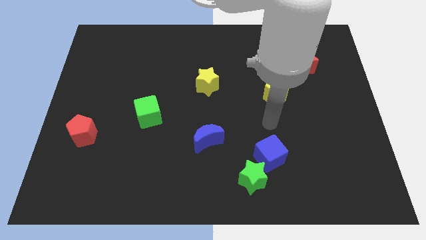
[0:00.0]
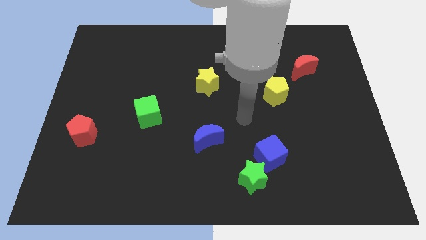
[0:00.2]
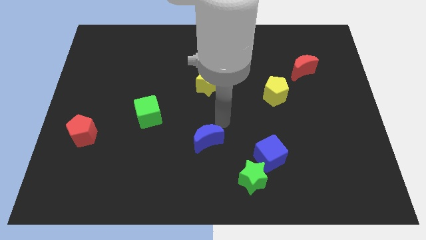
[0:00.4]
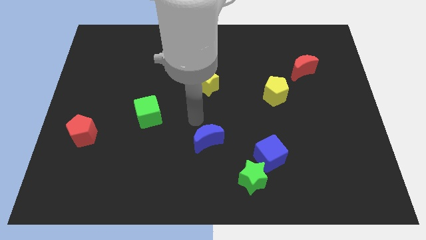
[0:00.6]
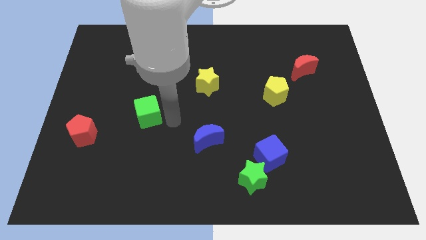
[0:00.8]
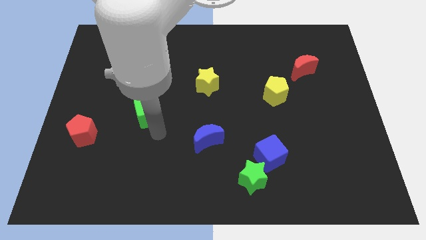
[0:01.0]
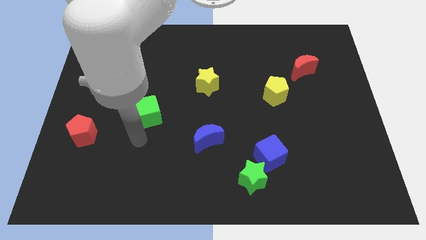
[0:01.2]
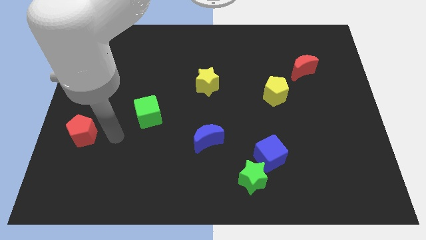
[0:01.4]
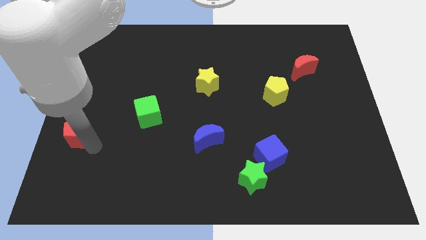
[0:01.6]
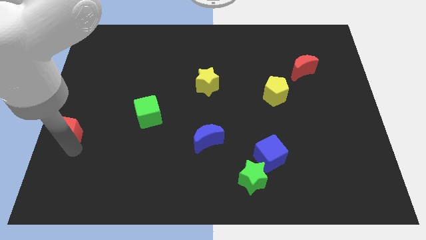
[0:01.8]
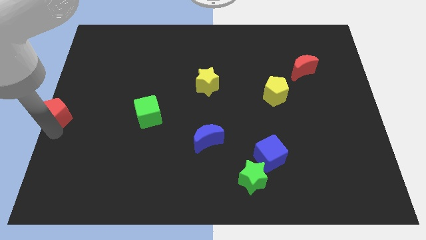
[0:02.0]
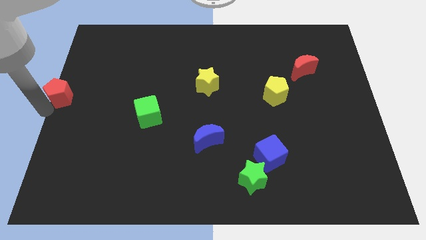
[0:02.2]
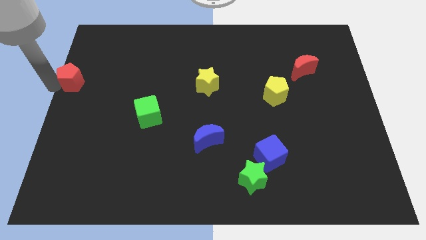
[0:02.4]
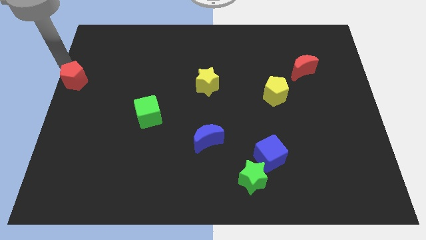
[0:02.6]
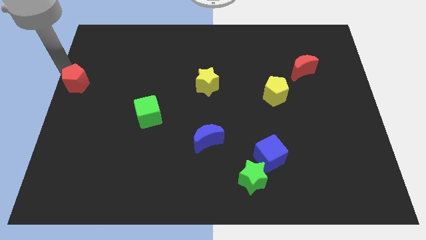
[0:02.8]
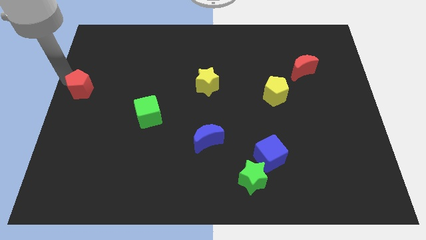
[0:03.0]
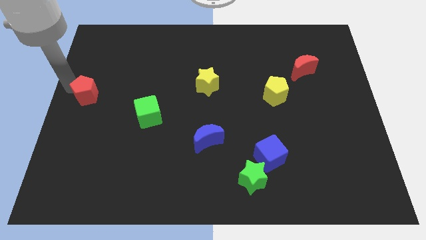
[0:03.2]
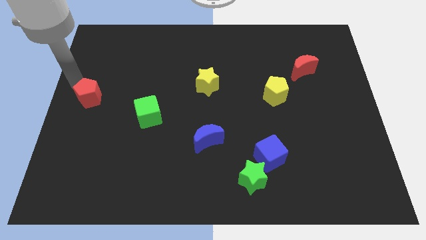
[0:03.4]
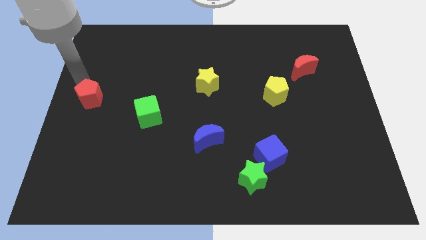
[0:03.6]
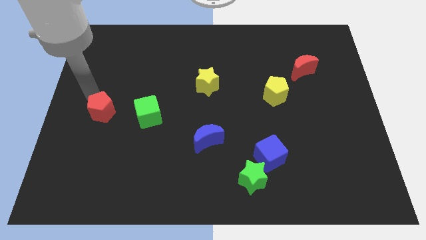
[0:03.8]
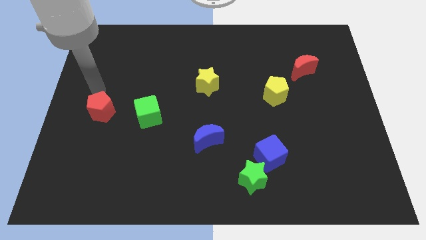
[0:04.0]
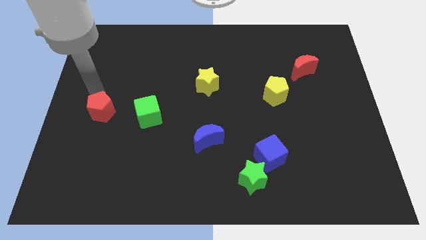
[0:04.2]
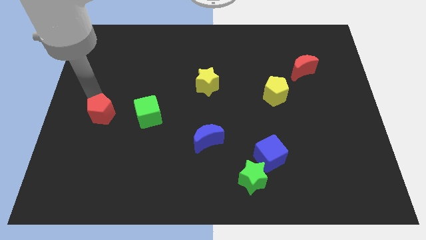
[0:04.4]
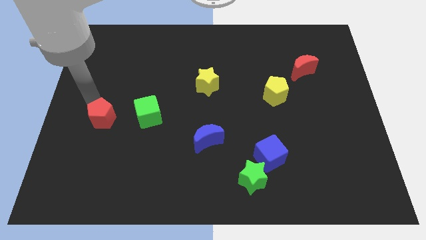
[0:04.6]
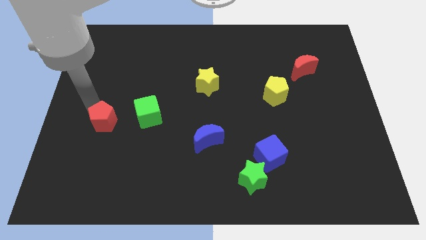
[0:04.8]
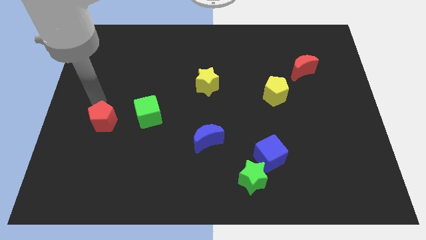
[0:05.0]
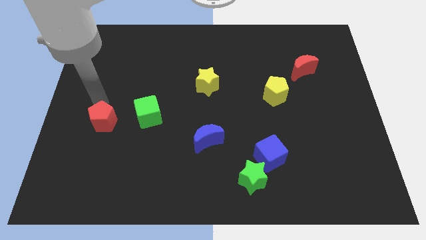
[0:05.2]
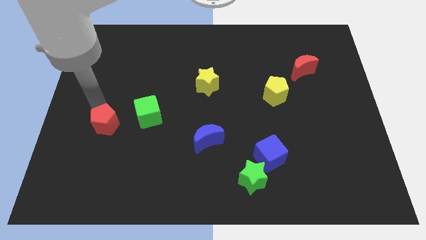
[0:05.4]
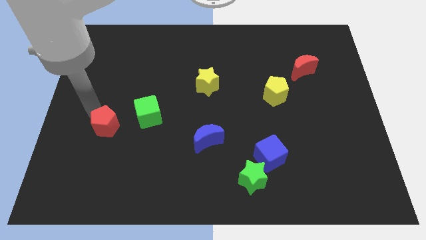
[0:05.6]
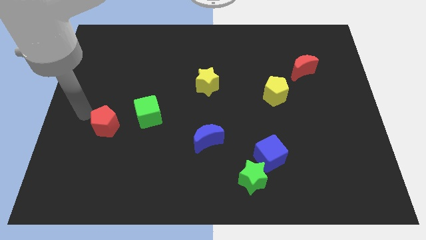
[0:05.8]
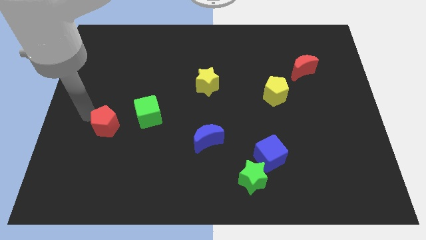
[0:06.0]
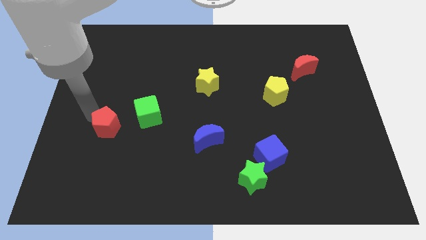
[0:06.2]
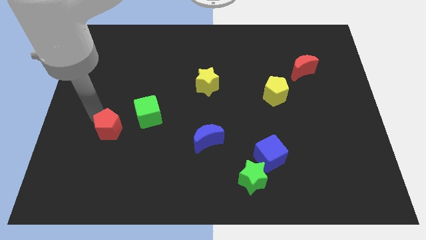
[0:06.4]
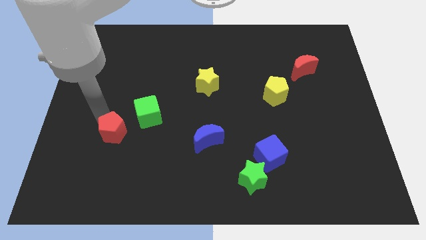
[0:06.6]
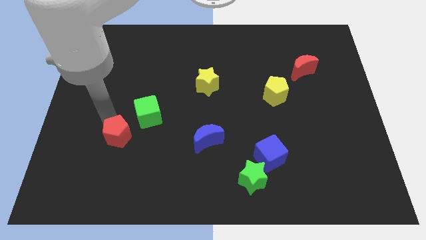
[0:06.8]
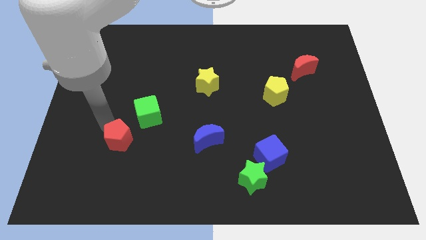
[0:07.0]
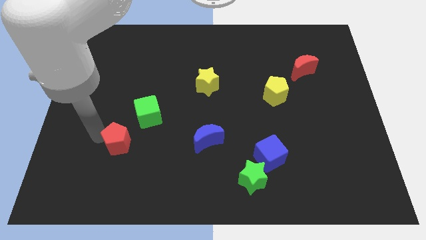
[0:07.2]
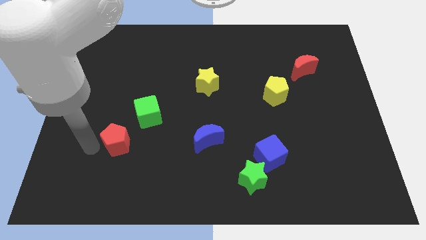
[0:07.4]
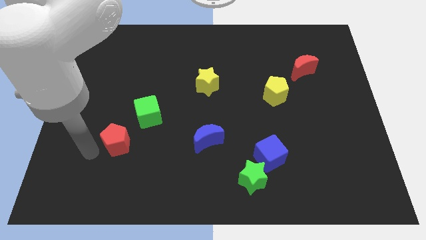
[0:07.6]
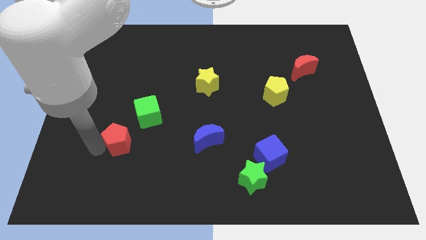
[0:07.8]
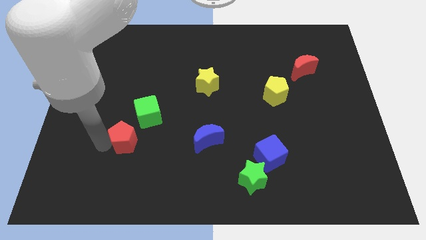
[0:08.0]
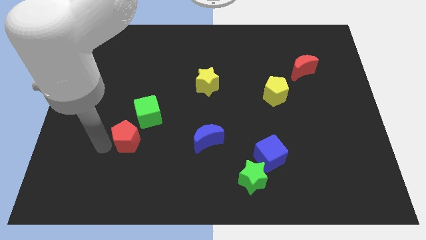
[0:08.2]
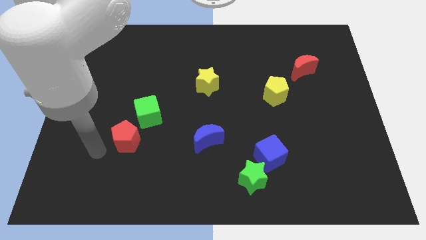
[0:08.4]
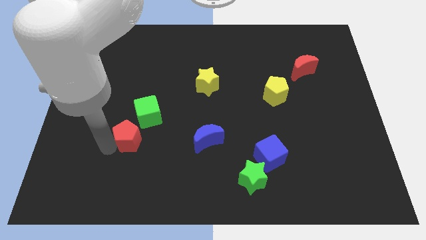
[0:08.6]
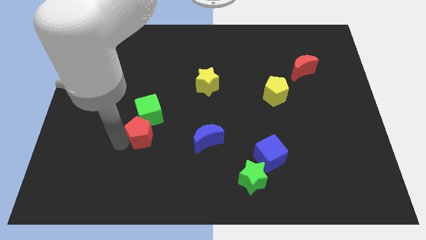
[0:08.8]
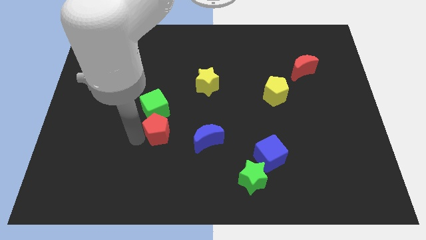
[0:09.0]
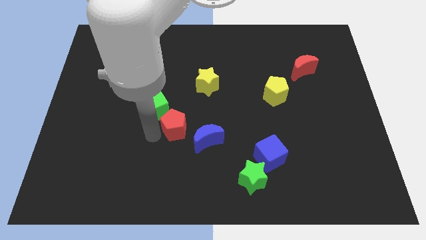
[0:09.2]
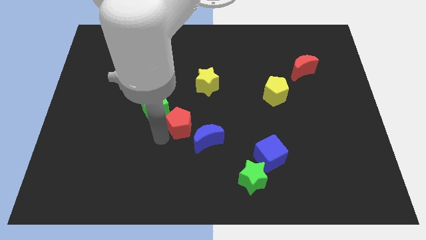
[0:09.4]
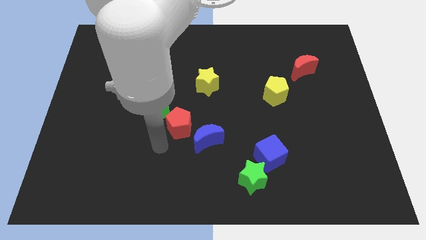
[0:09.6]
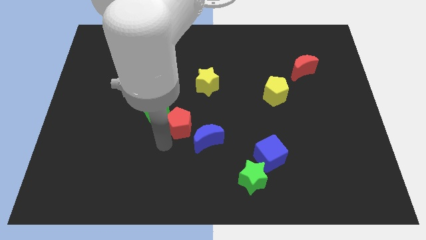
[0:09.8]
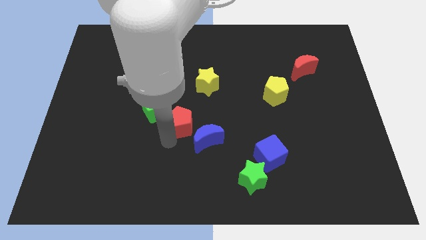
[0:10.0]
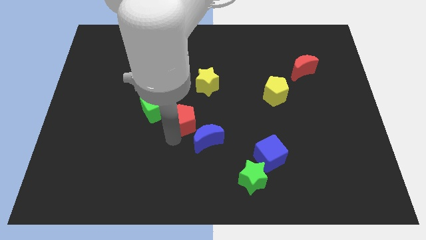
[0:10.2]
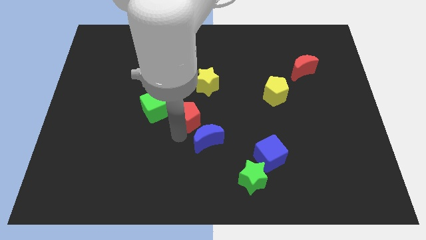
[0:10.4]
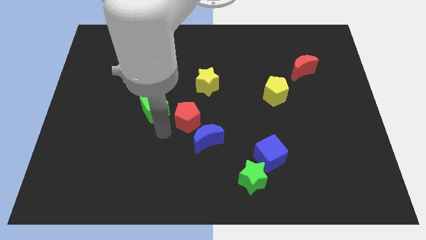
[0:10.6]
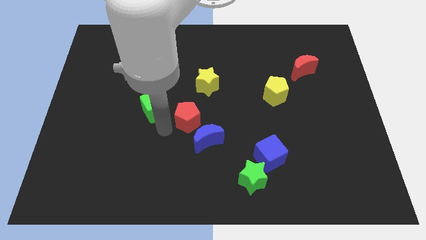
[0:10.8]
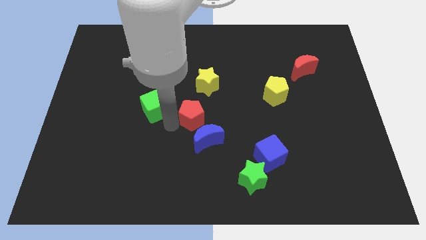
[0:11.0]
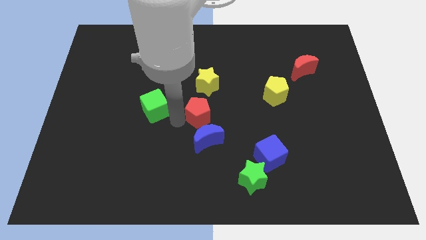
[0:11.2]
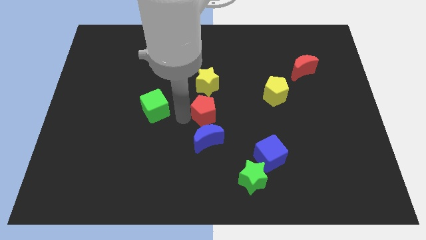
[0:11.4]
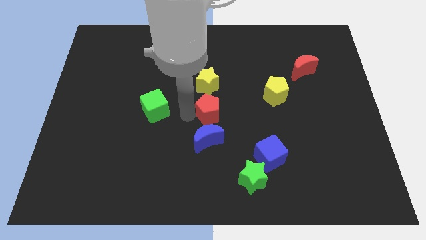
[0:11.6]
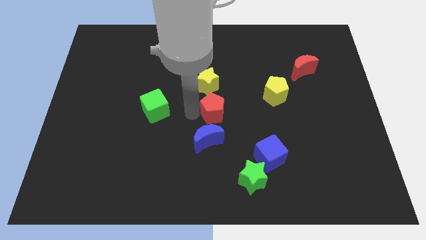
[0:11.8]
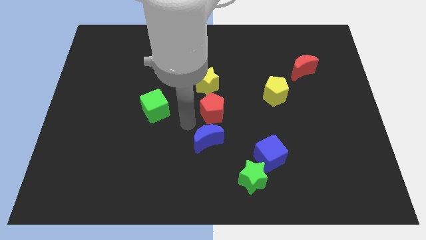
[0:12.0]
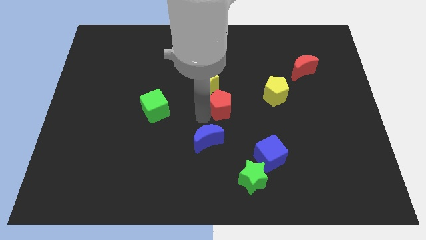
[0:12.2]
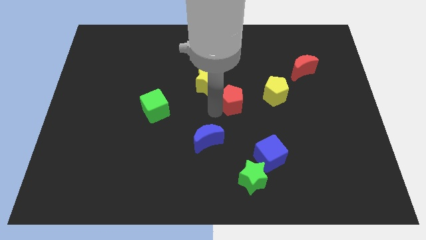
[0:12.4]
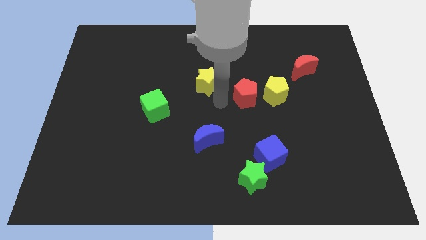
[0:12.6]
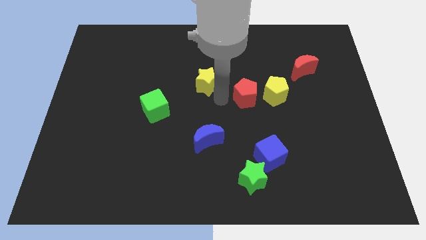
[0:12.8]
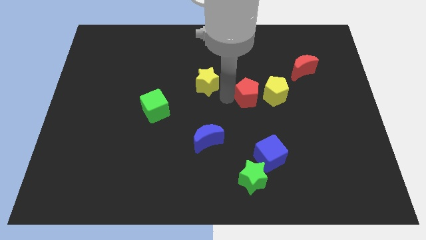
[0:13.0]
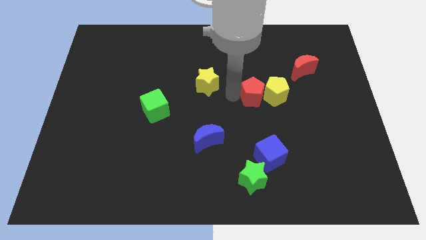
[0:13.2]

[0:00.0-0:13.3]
slide the red pentagon towards the yellow pentagon
